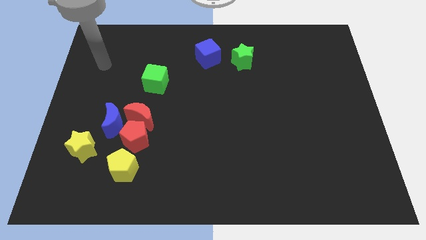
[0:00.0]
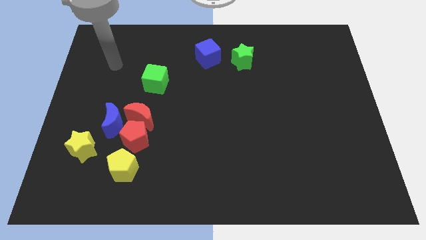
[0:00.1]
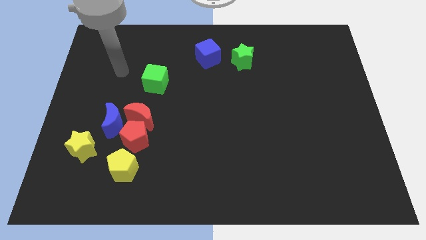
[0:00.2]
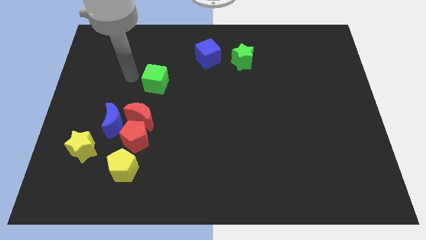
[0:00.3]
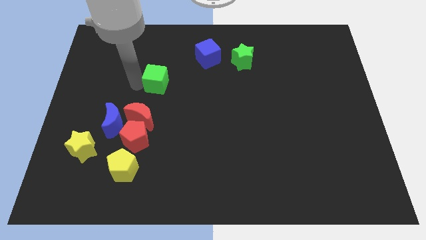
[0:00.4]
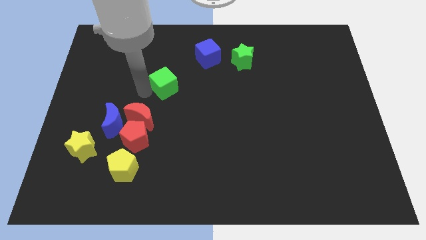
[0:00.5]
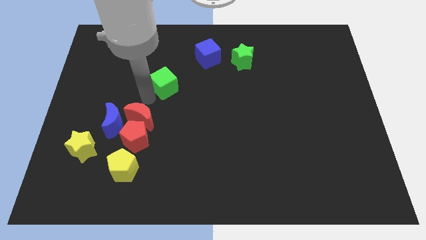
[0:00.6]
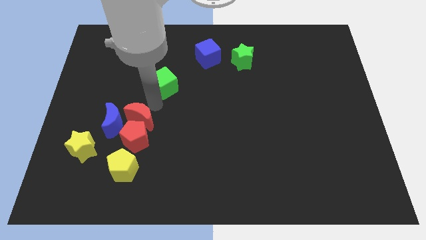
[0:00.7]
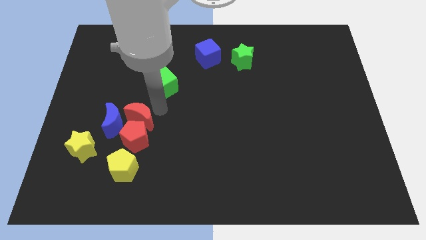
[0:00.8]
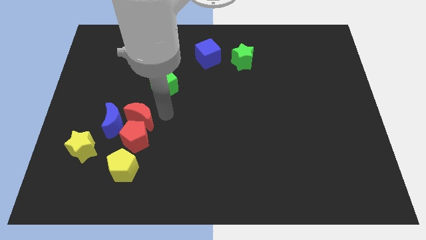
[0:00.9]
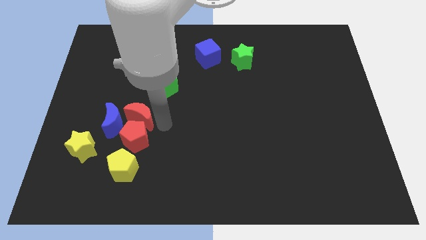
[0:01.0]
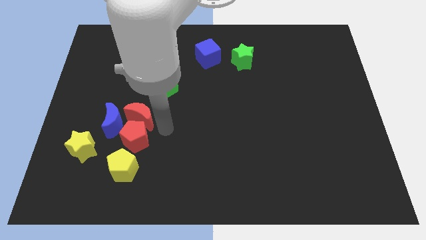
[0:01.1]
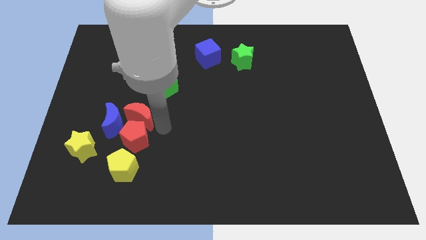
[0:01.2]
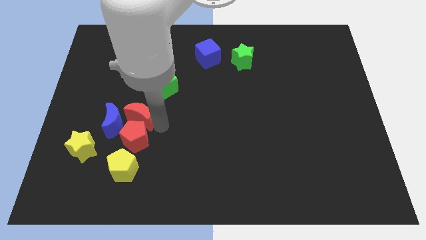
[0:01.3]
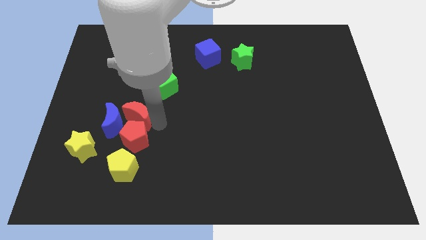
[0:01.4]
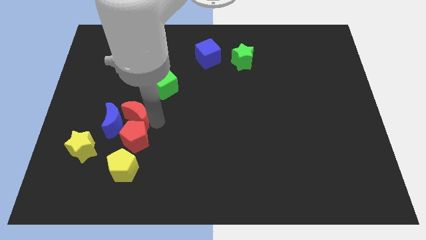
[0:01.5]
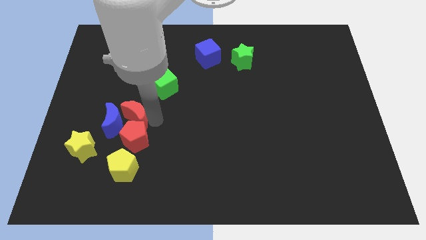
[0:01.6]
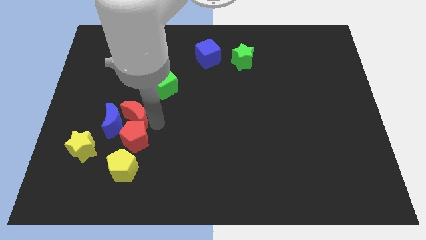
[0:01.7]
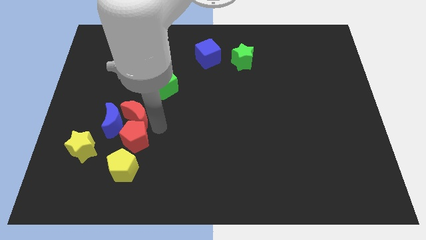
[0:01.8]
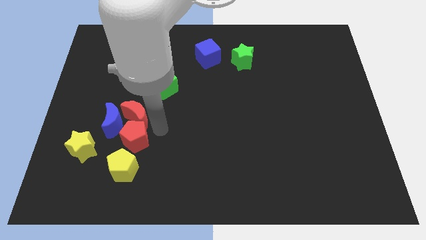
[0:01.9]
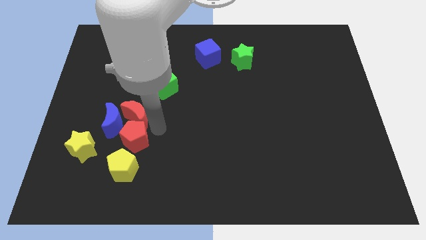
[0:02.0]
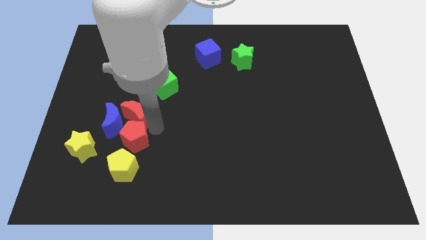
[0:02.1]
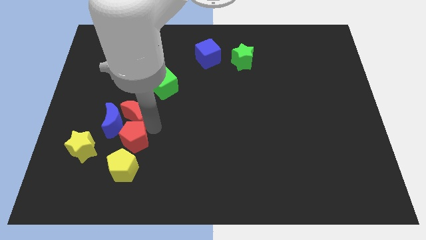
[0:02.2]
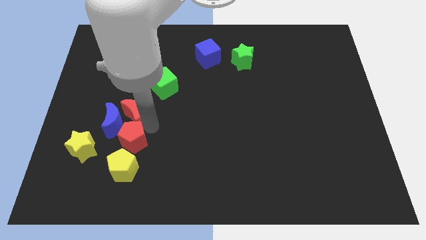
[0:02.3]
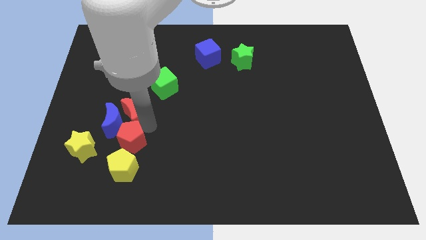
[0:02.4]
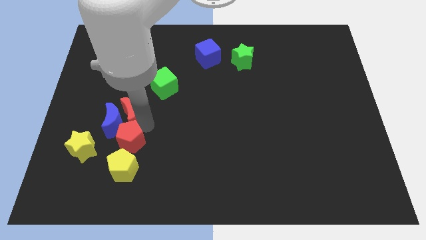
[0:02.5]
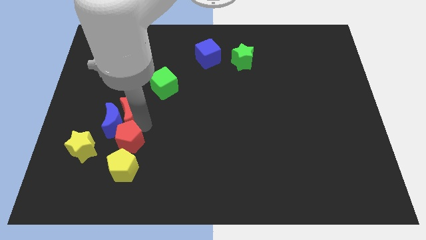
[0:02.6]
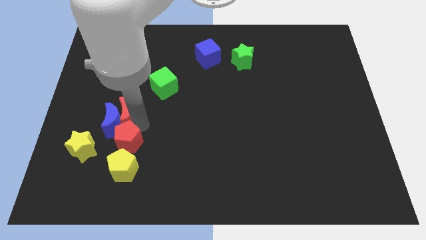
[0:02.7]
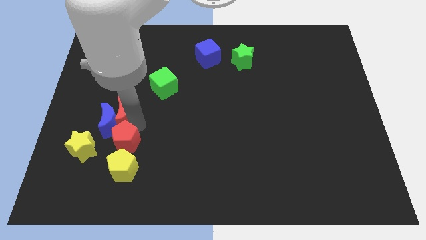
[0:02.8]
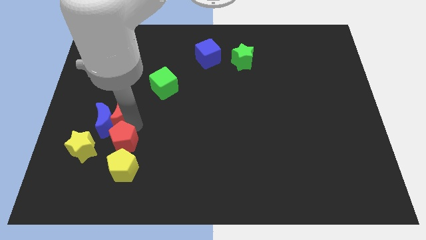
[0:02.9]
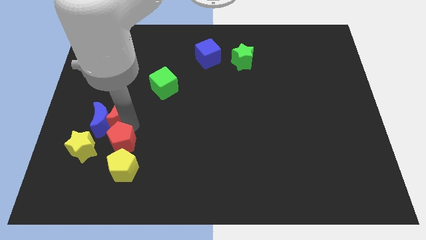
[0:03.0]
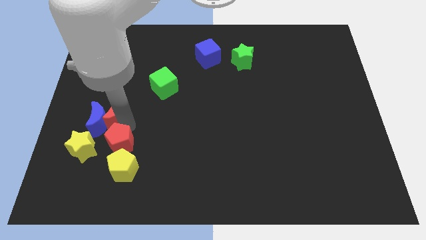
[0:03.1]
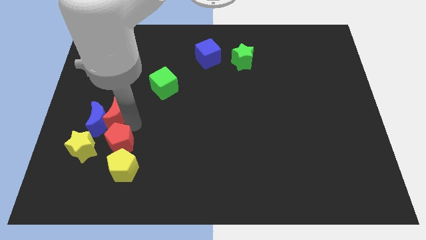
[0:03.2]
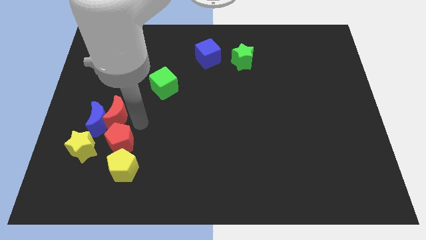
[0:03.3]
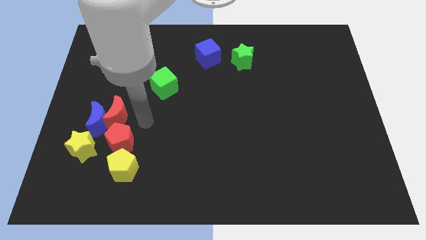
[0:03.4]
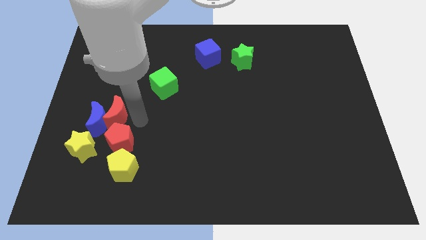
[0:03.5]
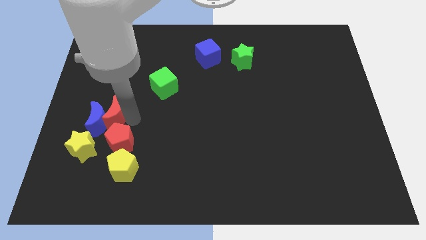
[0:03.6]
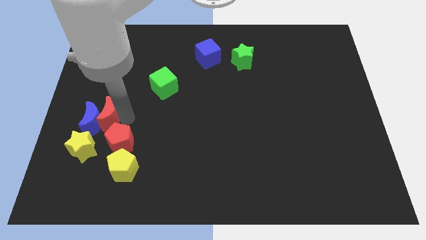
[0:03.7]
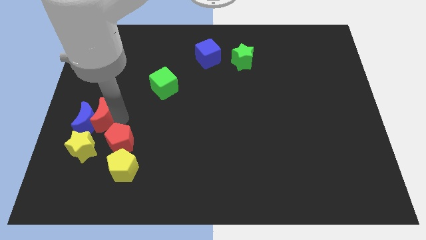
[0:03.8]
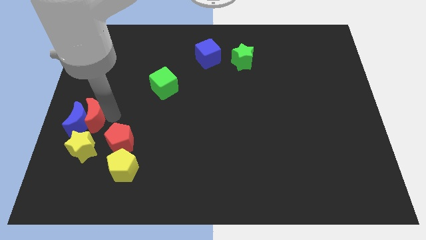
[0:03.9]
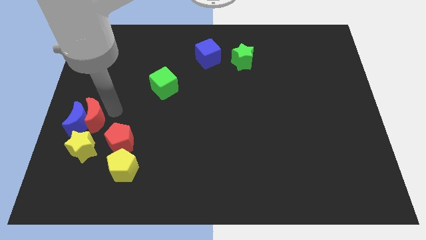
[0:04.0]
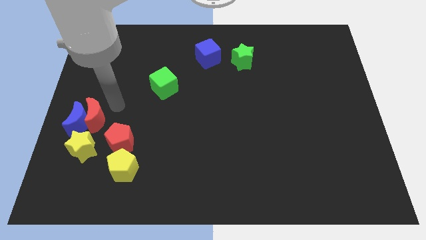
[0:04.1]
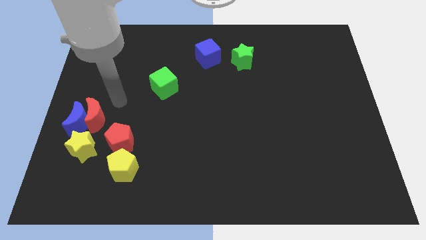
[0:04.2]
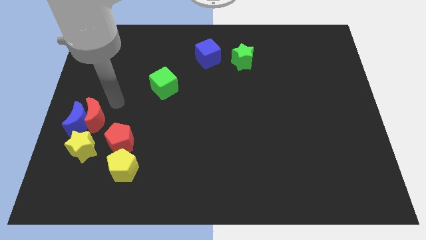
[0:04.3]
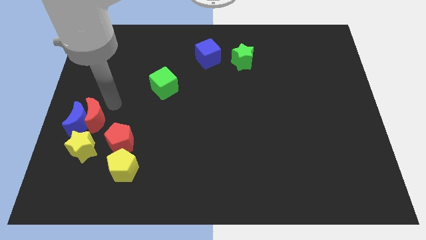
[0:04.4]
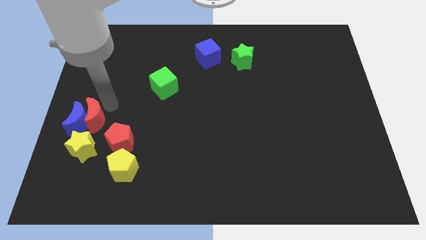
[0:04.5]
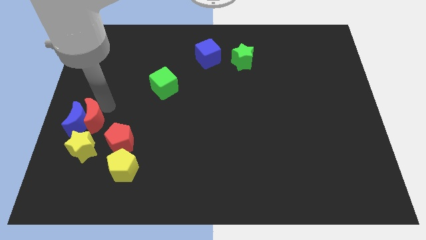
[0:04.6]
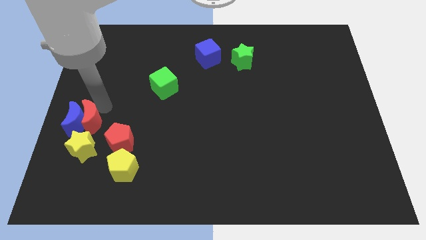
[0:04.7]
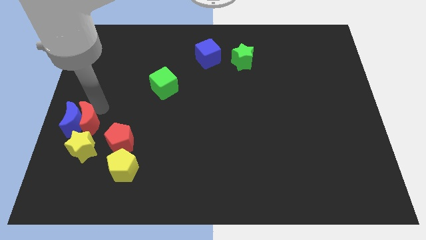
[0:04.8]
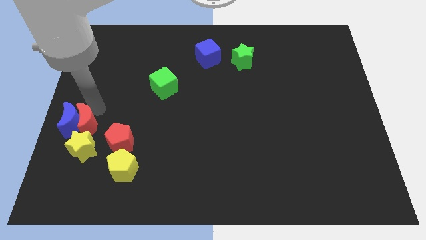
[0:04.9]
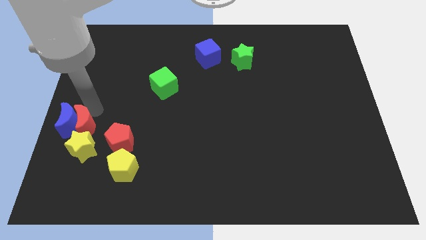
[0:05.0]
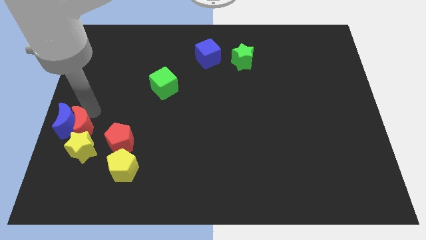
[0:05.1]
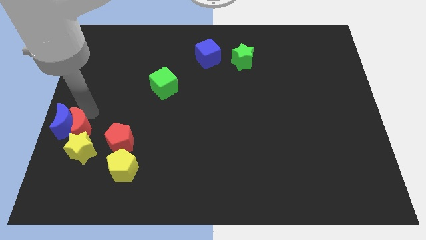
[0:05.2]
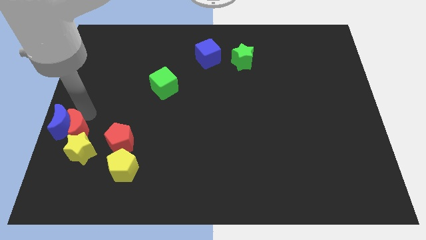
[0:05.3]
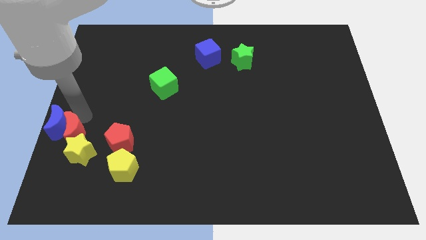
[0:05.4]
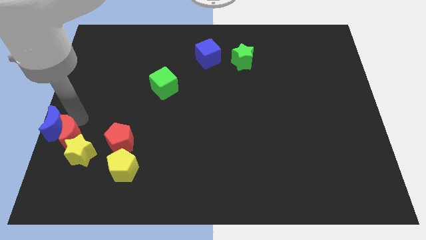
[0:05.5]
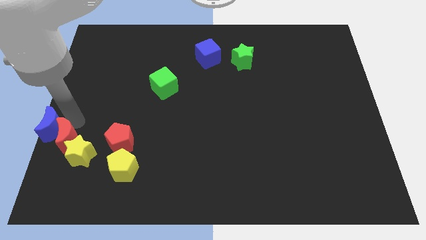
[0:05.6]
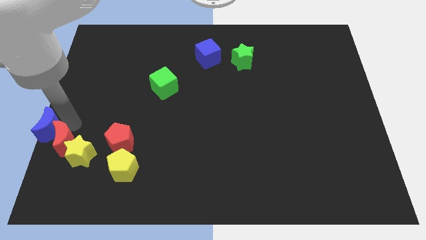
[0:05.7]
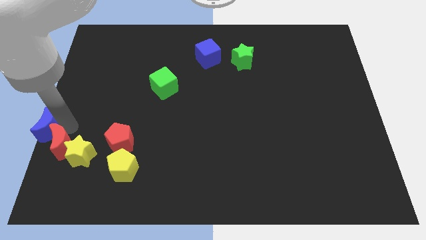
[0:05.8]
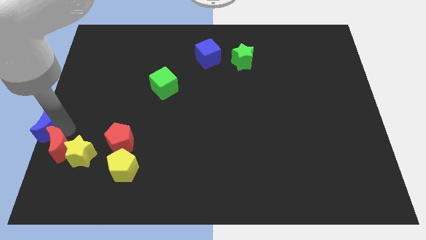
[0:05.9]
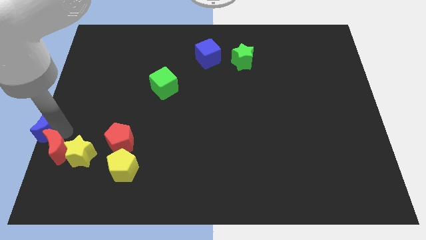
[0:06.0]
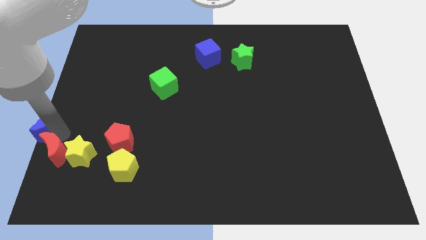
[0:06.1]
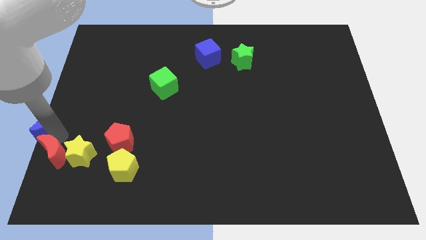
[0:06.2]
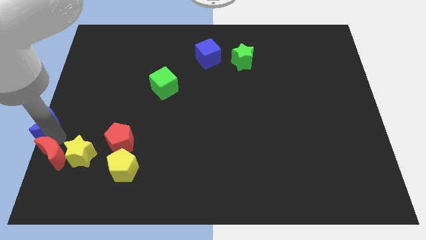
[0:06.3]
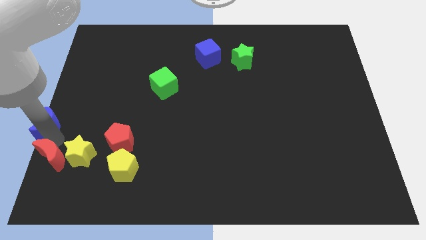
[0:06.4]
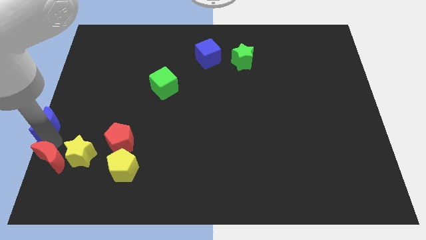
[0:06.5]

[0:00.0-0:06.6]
move the red moon to the bottom left
